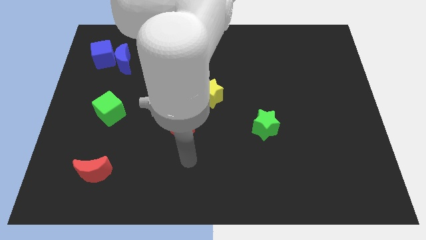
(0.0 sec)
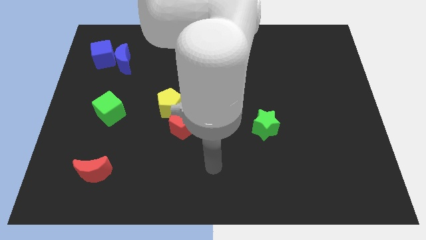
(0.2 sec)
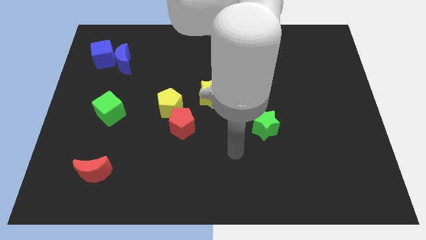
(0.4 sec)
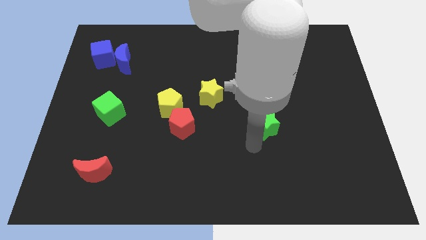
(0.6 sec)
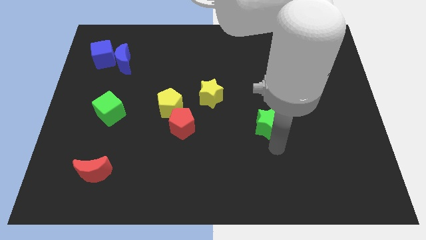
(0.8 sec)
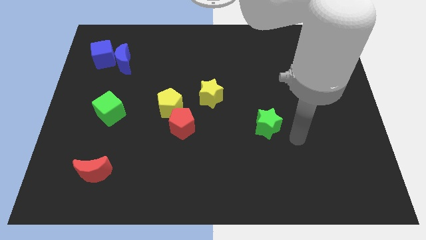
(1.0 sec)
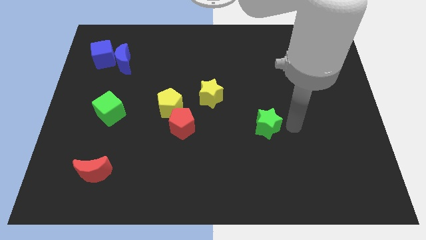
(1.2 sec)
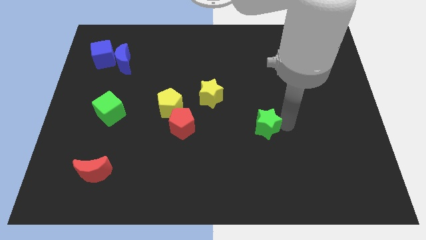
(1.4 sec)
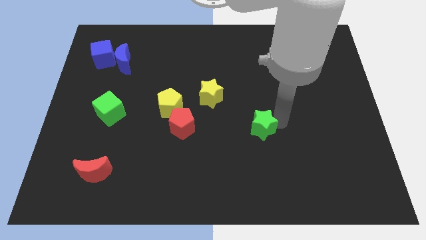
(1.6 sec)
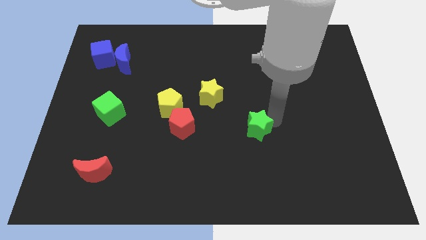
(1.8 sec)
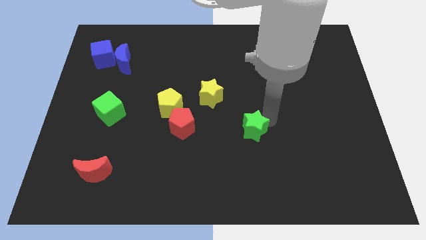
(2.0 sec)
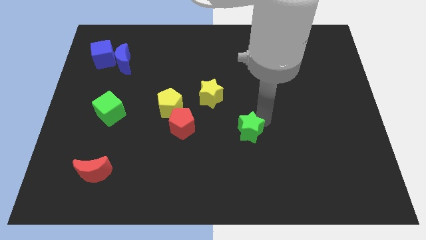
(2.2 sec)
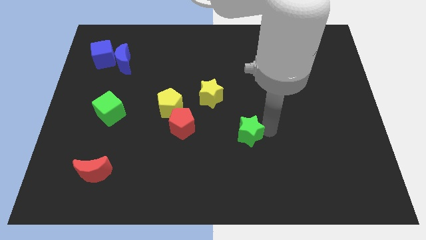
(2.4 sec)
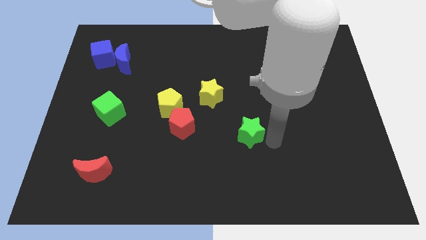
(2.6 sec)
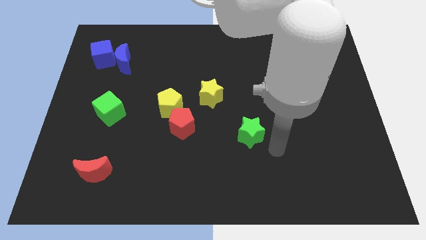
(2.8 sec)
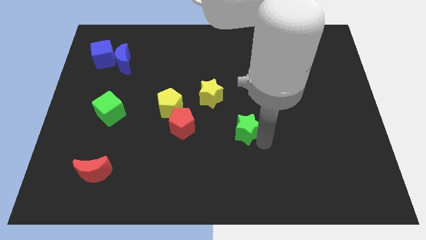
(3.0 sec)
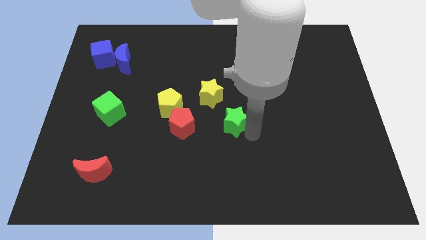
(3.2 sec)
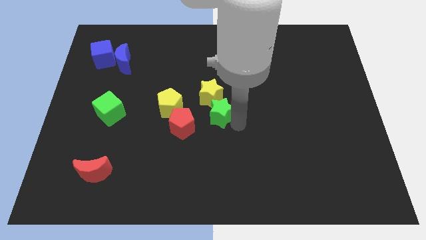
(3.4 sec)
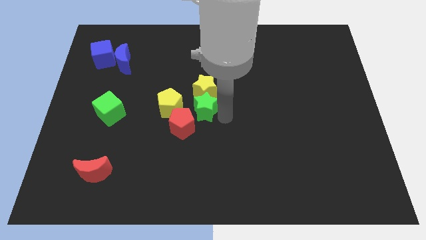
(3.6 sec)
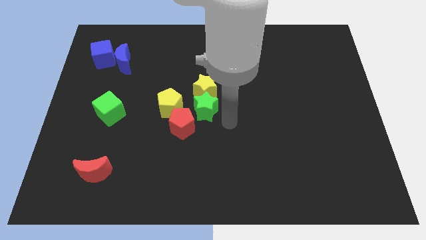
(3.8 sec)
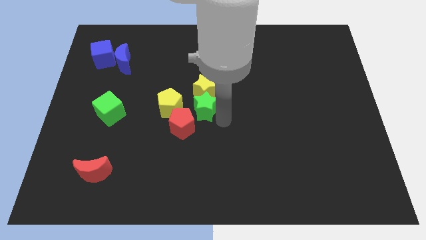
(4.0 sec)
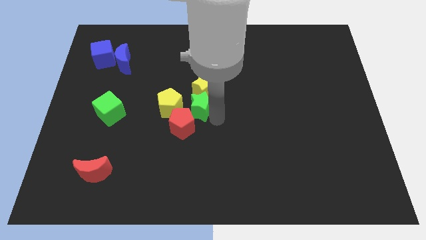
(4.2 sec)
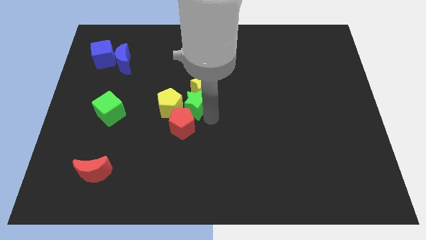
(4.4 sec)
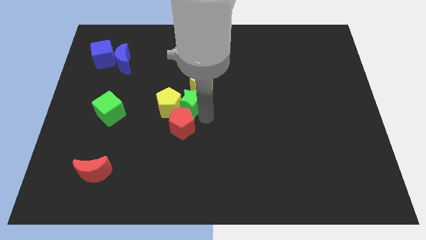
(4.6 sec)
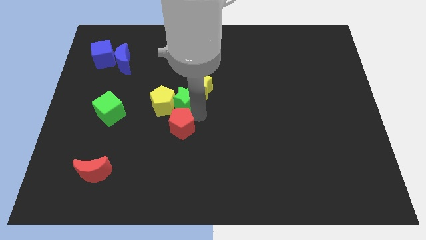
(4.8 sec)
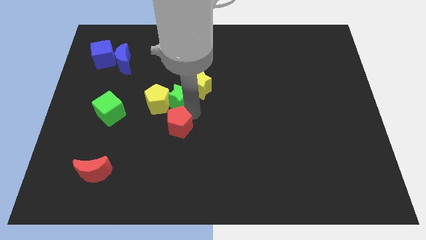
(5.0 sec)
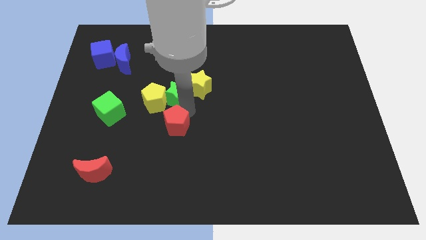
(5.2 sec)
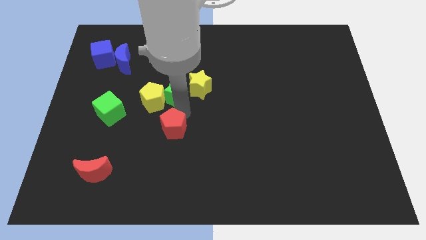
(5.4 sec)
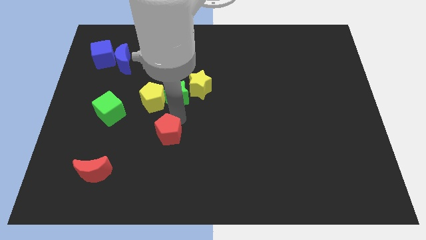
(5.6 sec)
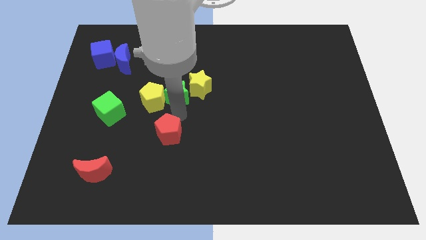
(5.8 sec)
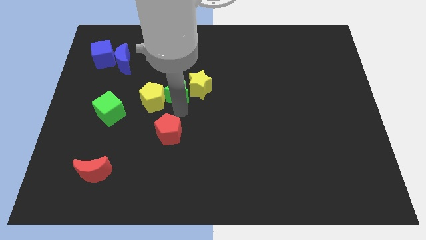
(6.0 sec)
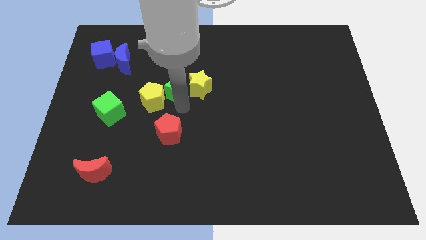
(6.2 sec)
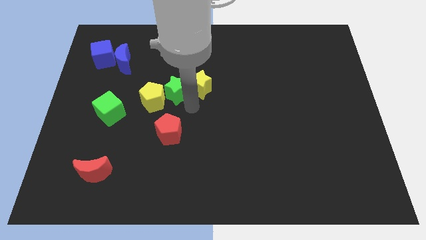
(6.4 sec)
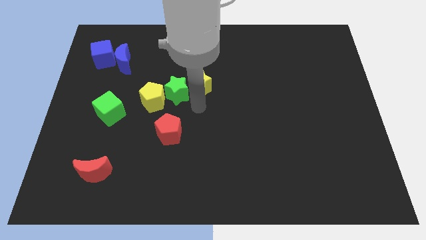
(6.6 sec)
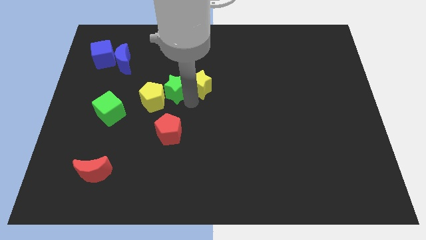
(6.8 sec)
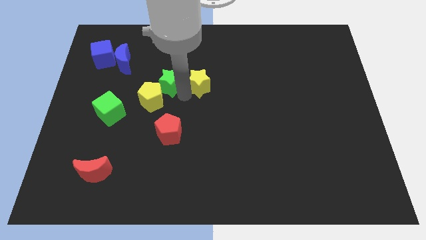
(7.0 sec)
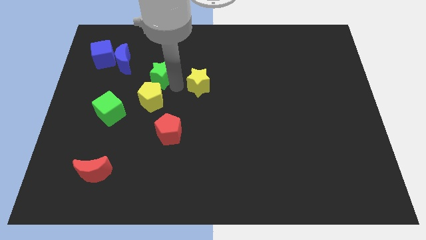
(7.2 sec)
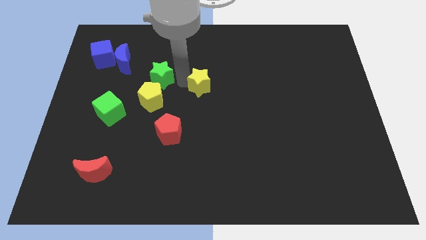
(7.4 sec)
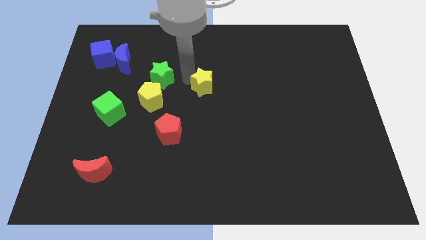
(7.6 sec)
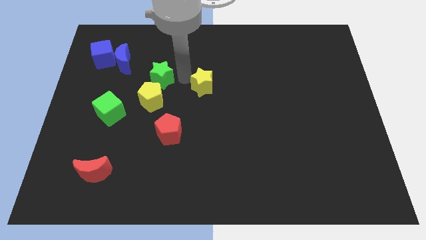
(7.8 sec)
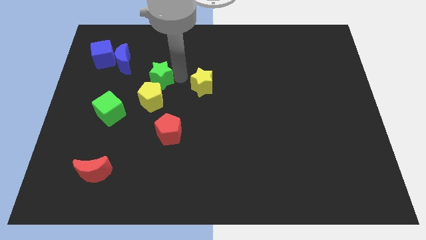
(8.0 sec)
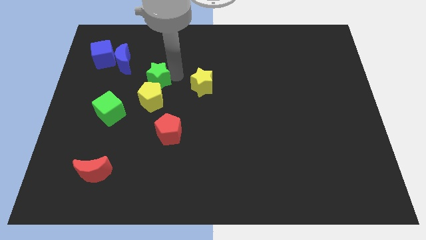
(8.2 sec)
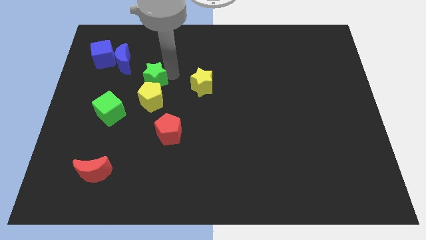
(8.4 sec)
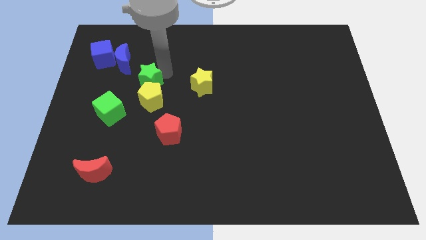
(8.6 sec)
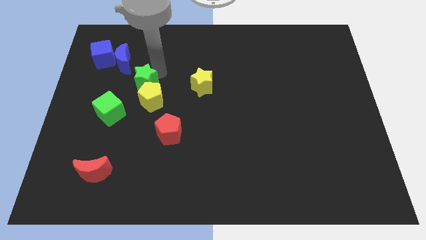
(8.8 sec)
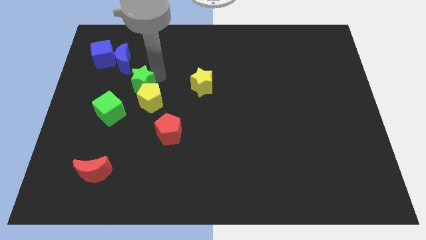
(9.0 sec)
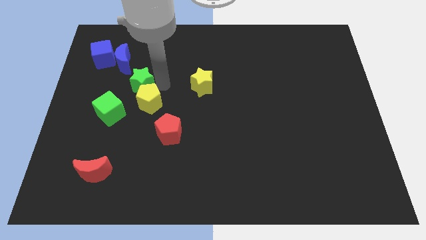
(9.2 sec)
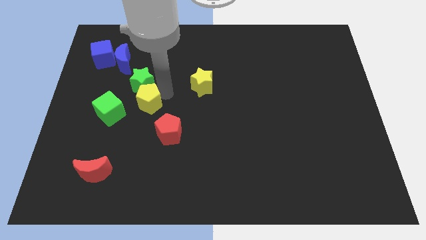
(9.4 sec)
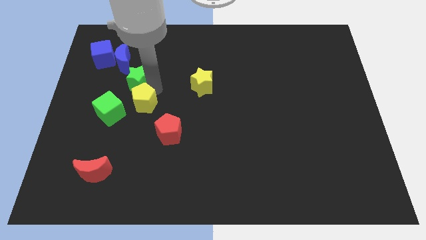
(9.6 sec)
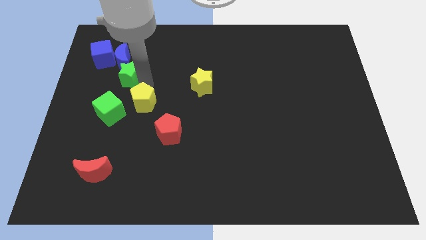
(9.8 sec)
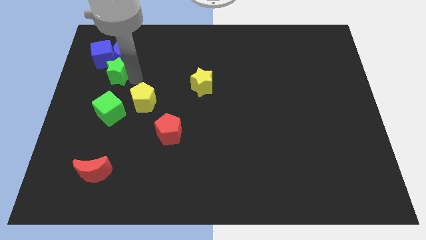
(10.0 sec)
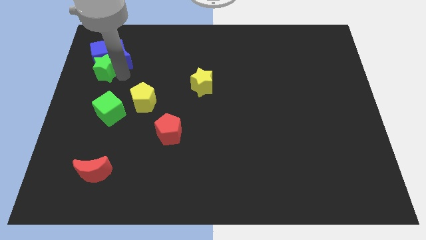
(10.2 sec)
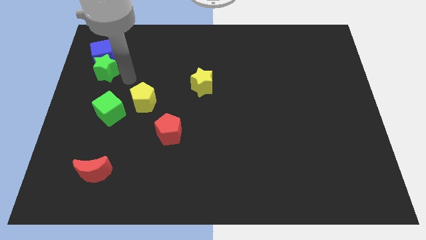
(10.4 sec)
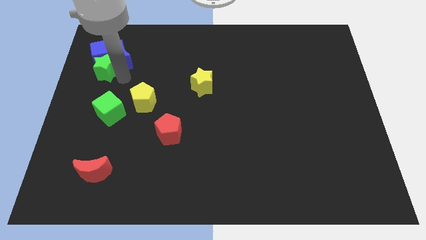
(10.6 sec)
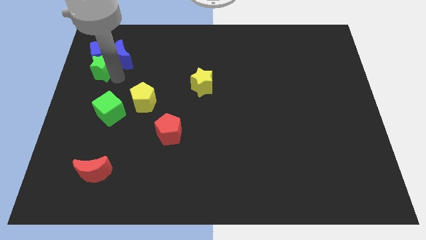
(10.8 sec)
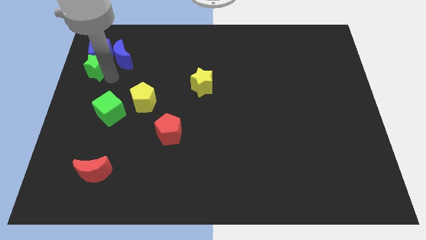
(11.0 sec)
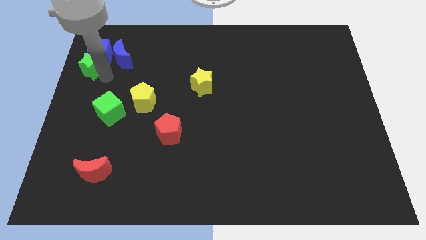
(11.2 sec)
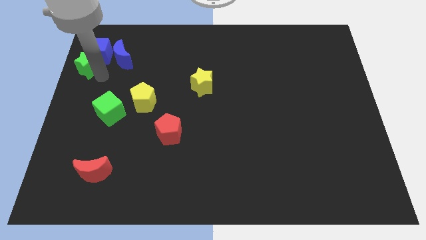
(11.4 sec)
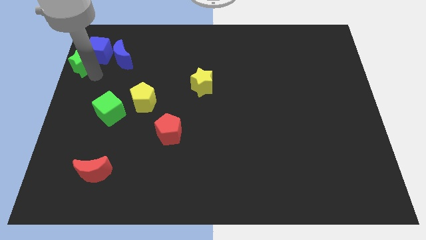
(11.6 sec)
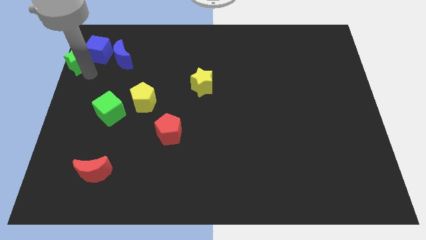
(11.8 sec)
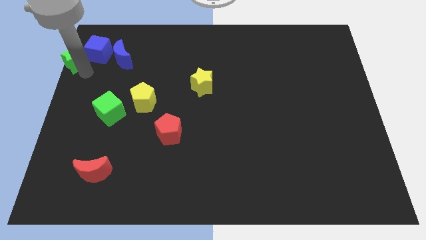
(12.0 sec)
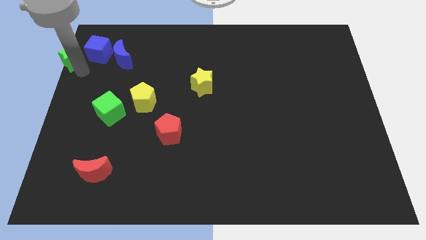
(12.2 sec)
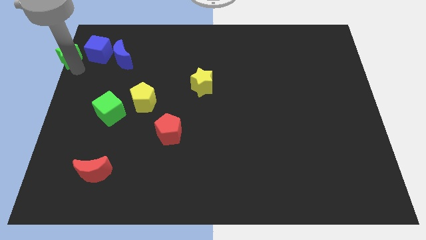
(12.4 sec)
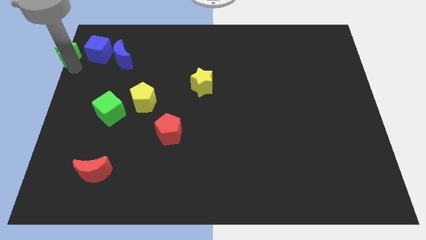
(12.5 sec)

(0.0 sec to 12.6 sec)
move the green star to the upper left corner

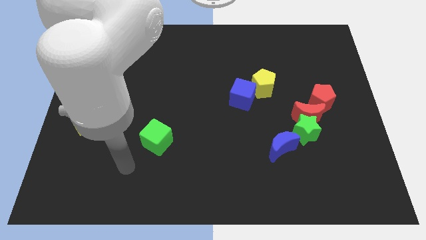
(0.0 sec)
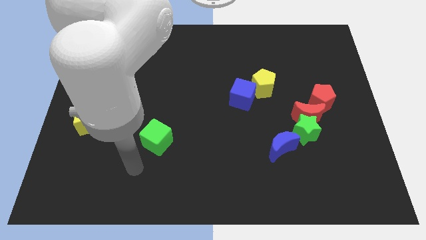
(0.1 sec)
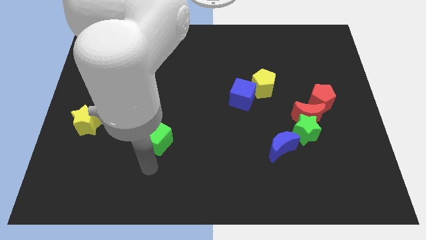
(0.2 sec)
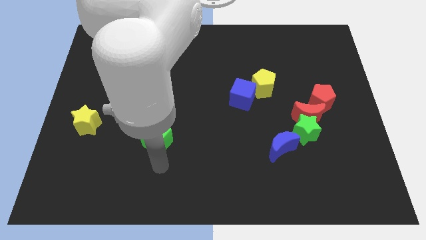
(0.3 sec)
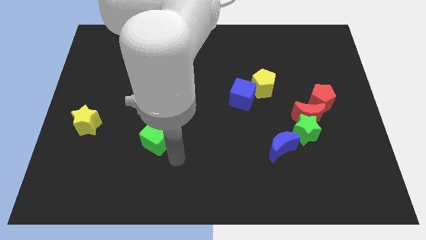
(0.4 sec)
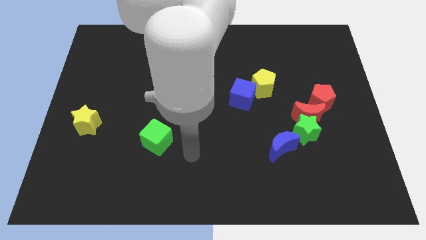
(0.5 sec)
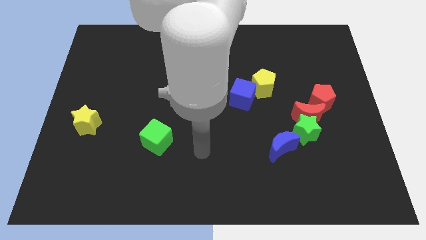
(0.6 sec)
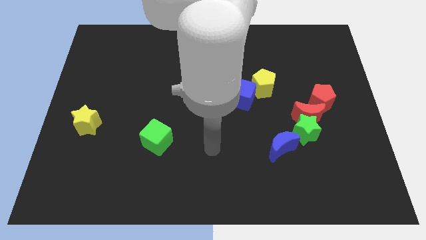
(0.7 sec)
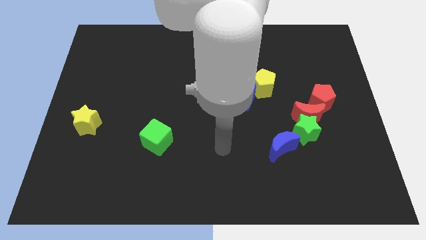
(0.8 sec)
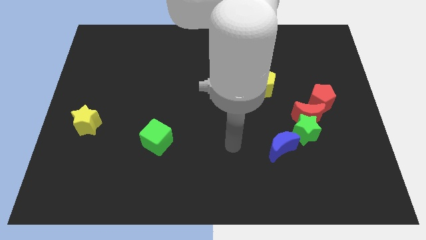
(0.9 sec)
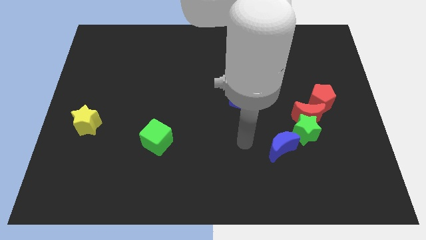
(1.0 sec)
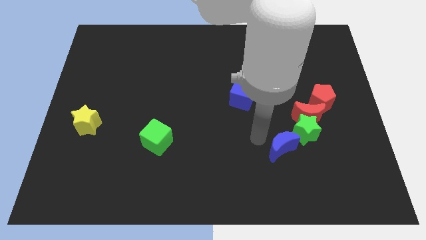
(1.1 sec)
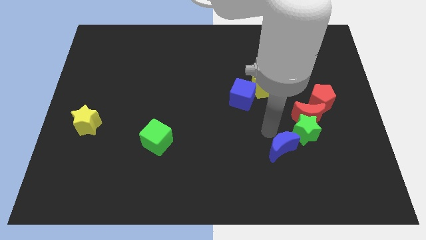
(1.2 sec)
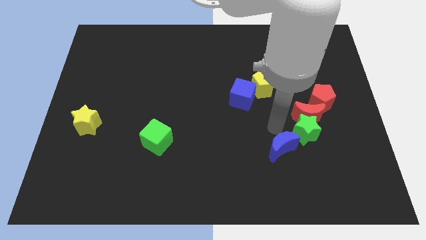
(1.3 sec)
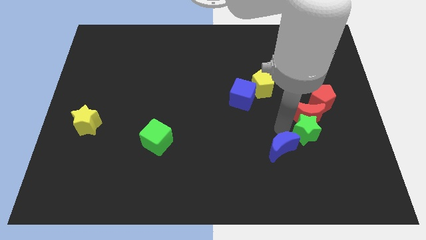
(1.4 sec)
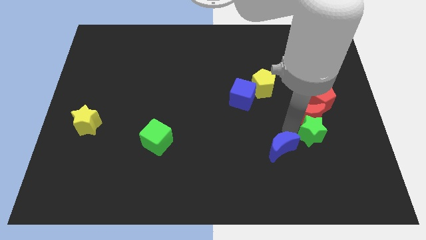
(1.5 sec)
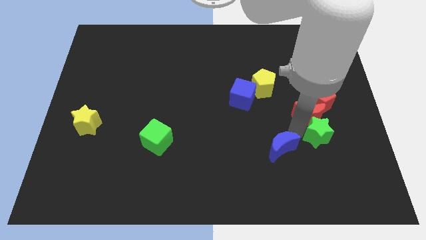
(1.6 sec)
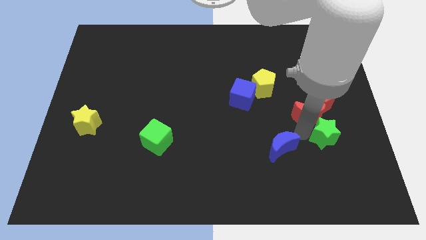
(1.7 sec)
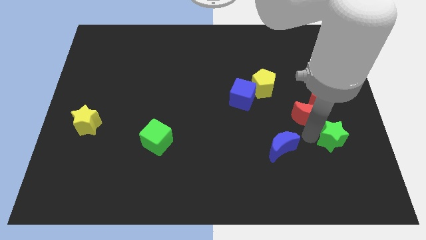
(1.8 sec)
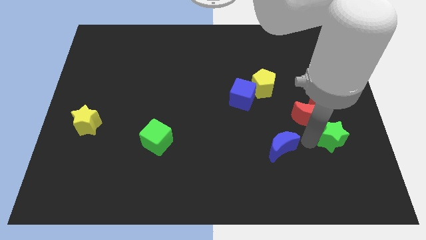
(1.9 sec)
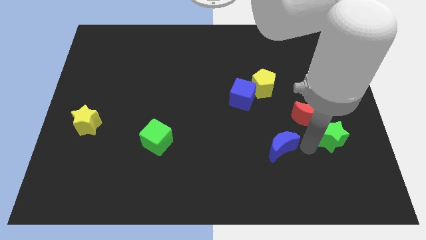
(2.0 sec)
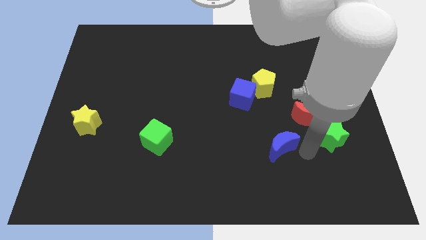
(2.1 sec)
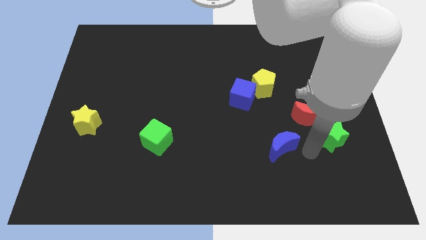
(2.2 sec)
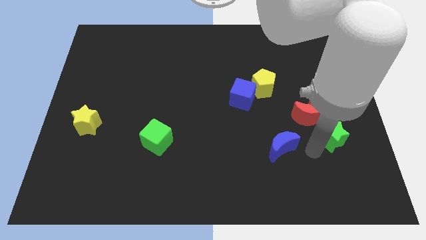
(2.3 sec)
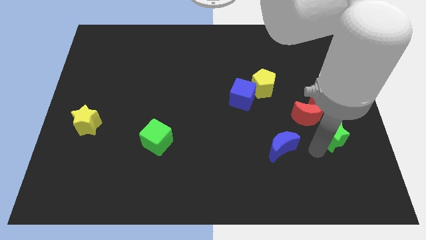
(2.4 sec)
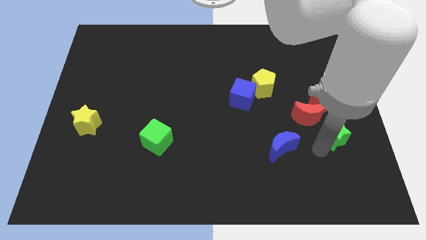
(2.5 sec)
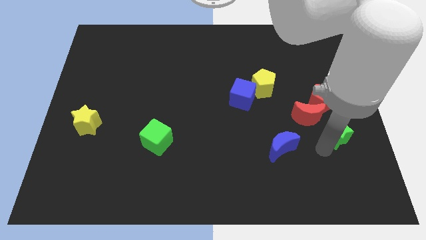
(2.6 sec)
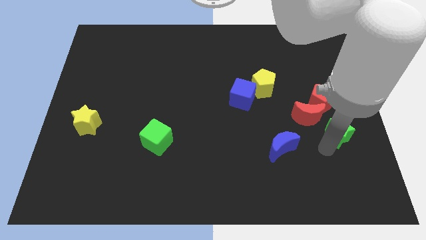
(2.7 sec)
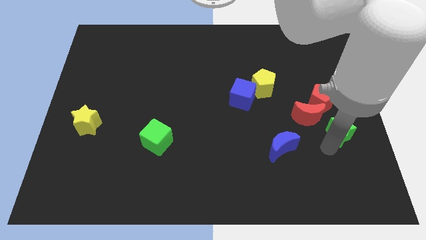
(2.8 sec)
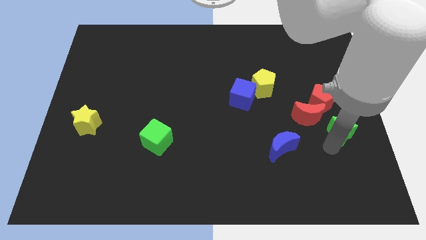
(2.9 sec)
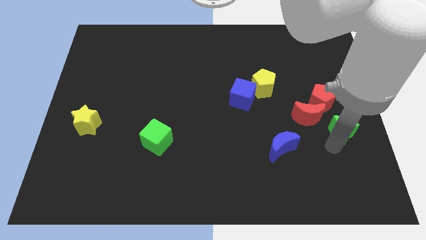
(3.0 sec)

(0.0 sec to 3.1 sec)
put the green star to the right side
